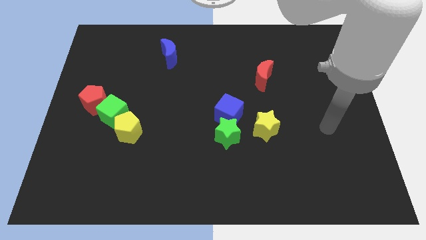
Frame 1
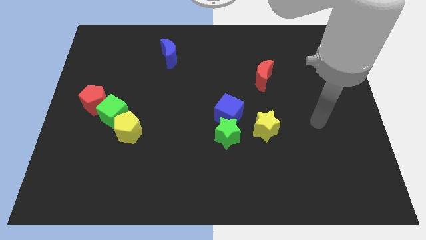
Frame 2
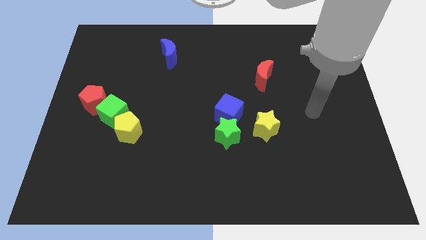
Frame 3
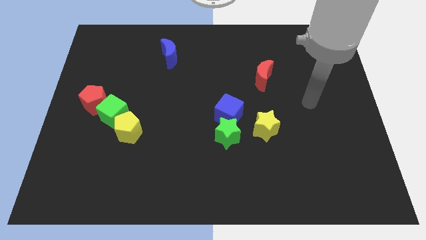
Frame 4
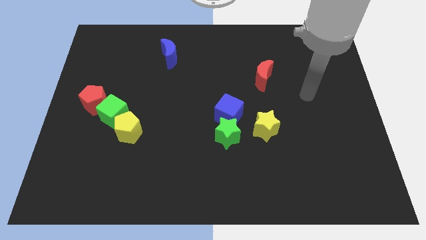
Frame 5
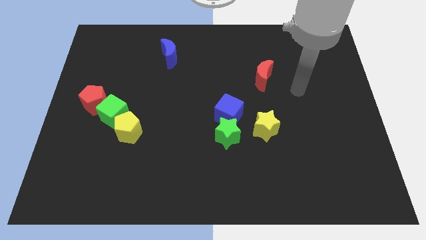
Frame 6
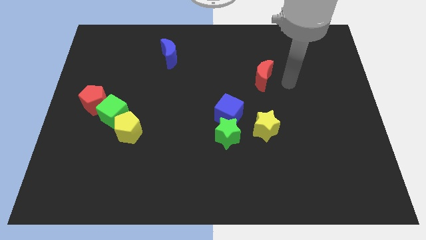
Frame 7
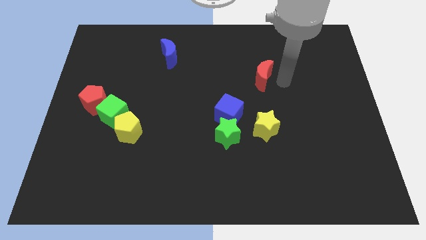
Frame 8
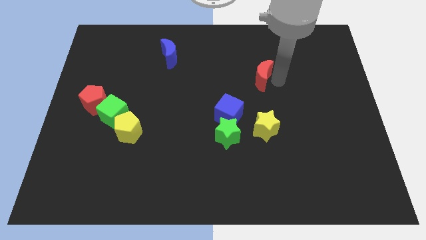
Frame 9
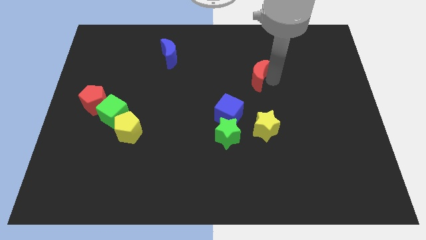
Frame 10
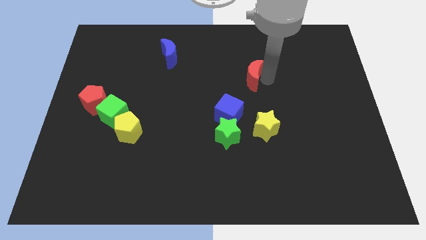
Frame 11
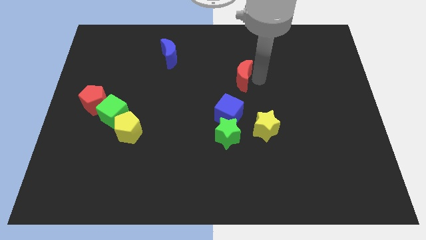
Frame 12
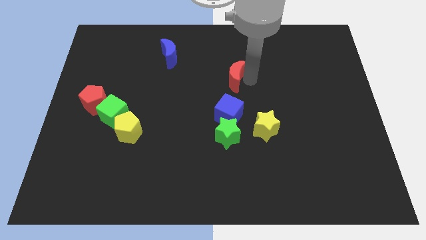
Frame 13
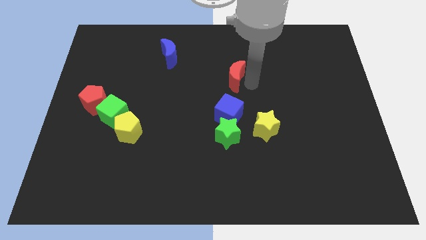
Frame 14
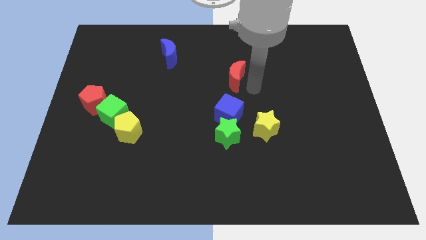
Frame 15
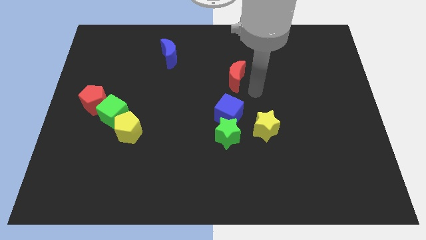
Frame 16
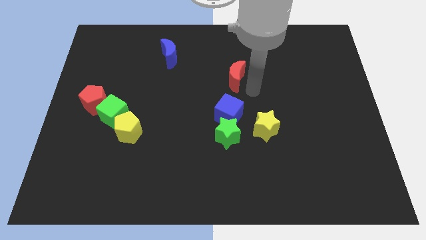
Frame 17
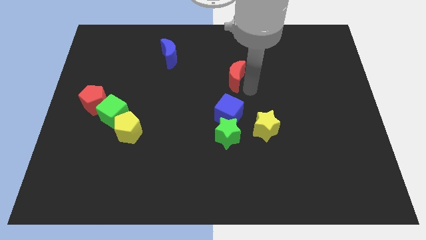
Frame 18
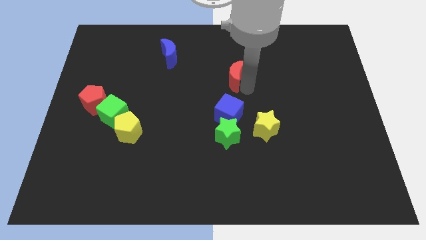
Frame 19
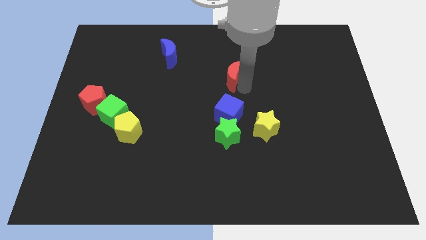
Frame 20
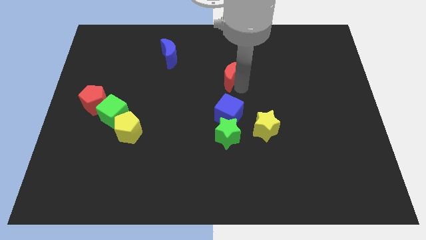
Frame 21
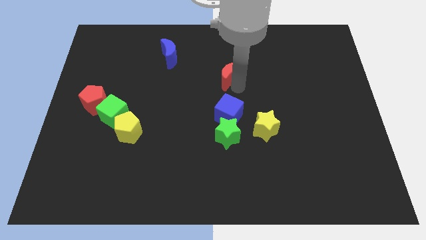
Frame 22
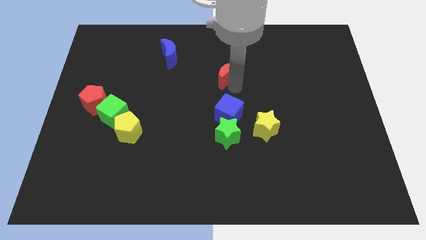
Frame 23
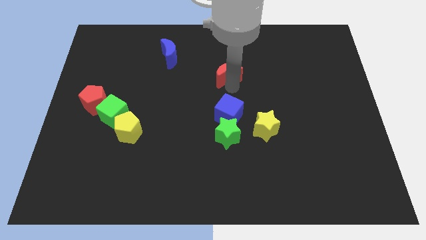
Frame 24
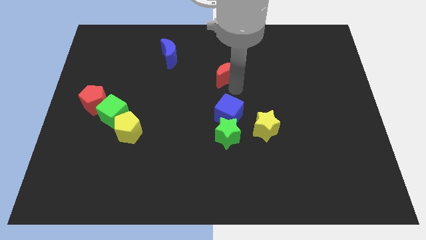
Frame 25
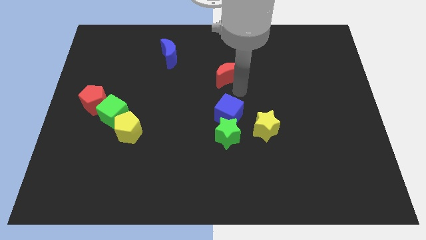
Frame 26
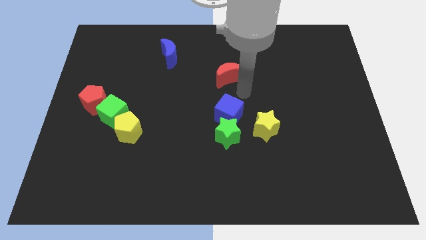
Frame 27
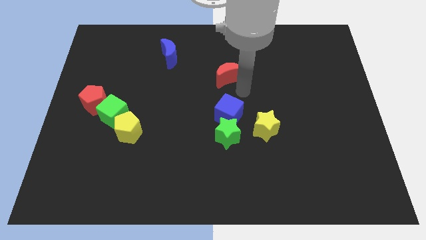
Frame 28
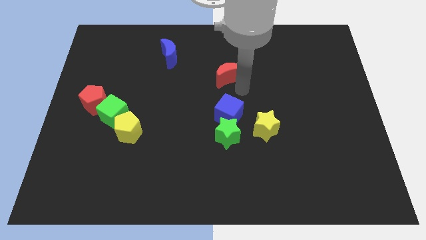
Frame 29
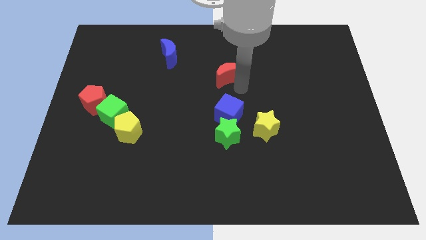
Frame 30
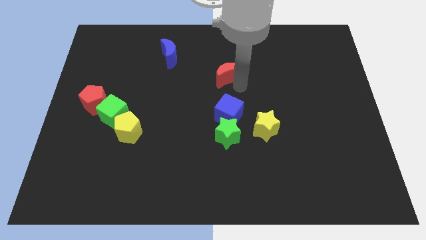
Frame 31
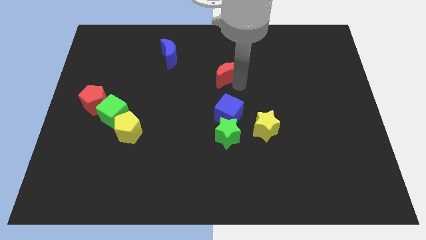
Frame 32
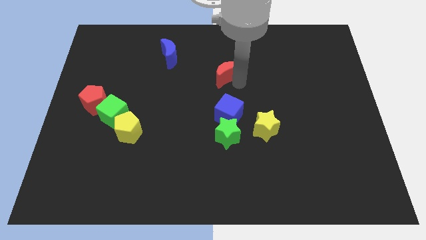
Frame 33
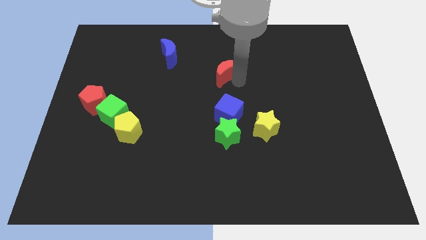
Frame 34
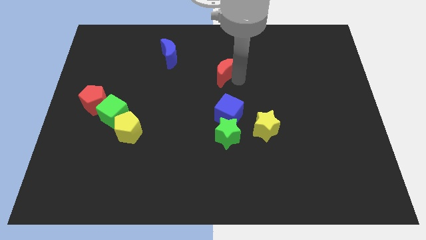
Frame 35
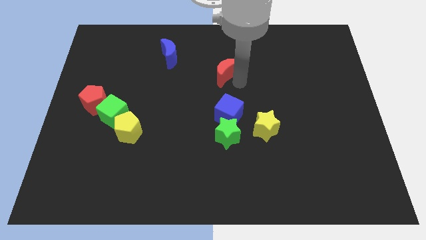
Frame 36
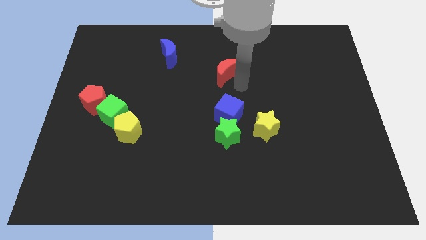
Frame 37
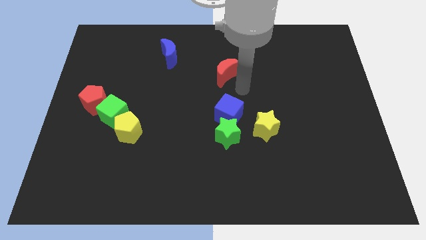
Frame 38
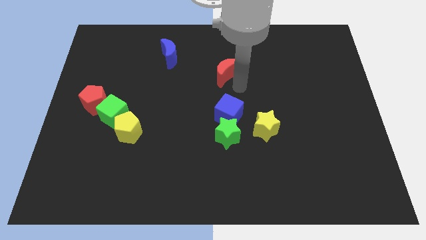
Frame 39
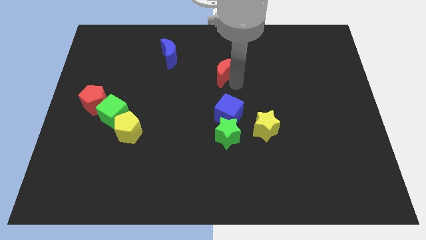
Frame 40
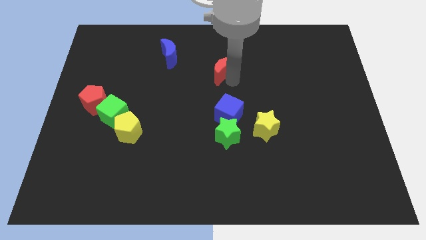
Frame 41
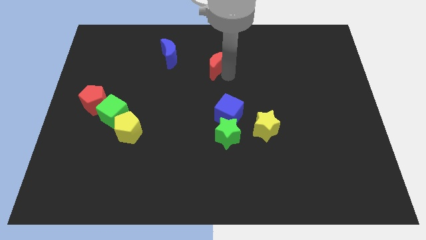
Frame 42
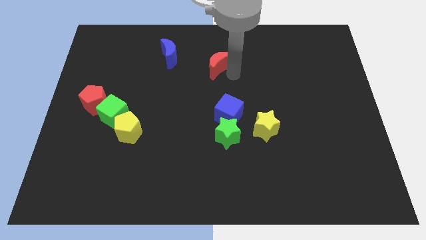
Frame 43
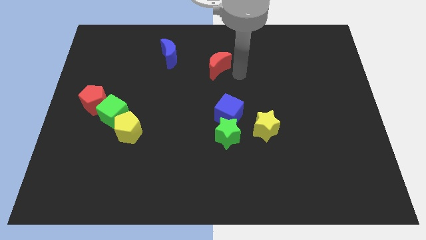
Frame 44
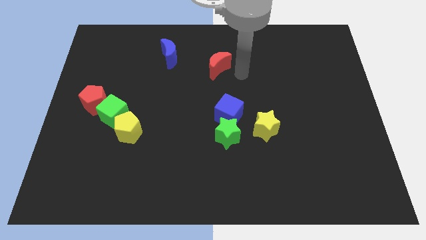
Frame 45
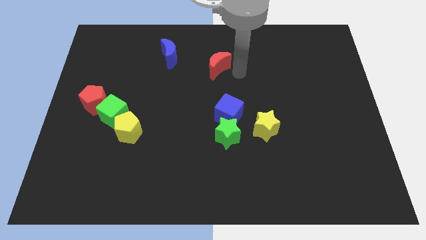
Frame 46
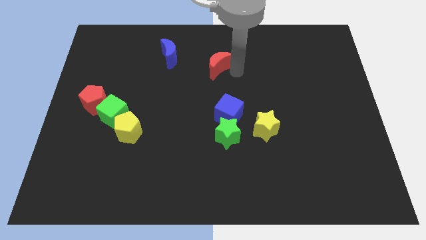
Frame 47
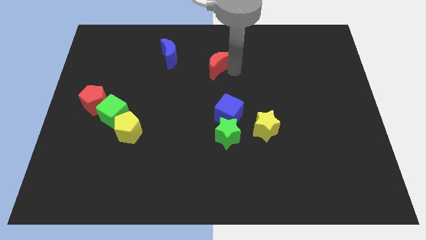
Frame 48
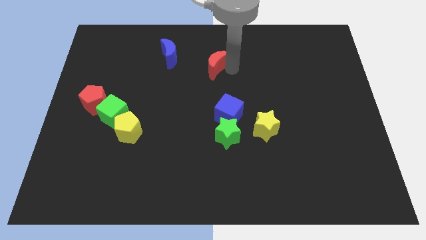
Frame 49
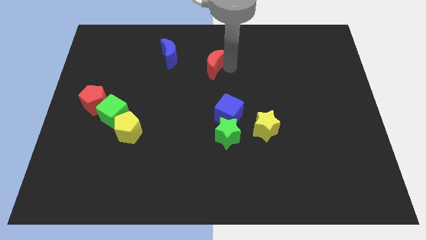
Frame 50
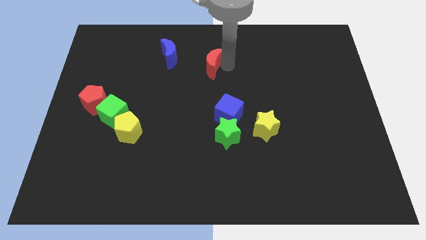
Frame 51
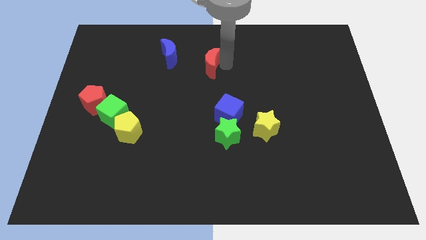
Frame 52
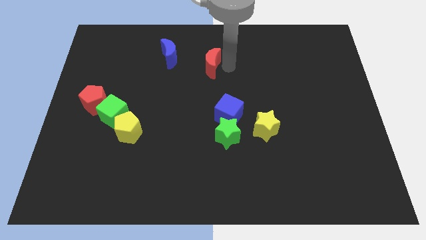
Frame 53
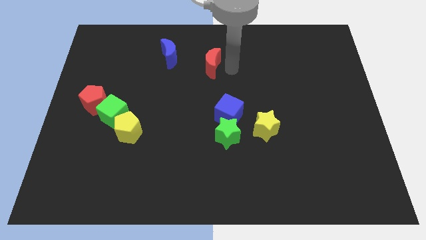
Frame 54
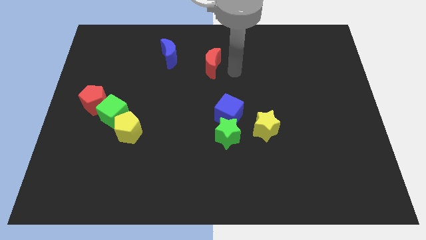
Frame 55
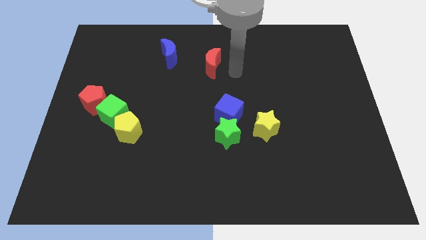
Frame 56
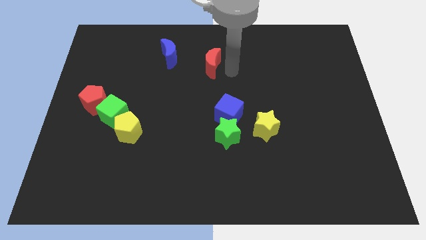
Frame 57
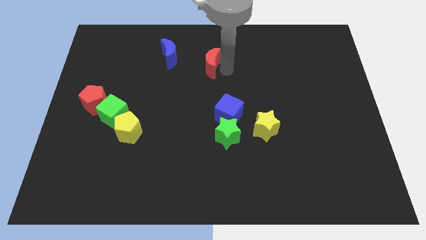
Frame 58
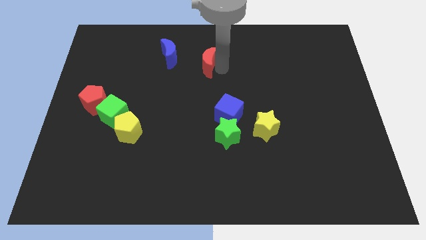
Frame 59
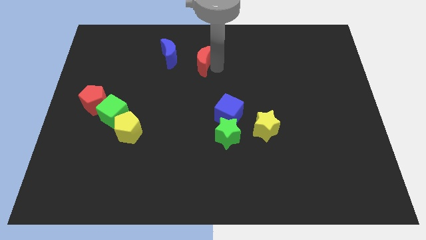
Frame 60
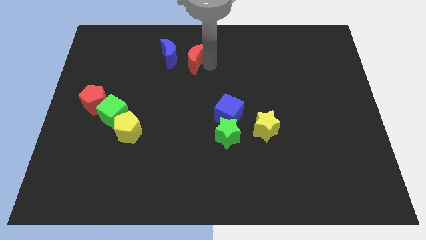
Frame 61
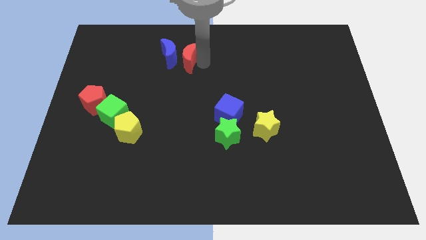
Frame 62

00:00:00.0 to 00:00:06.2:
move the red moon next to the blue moon
